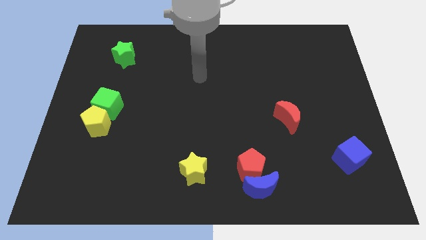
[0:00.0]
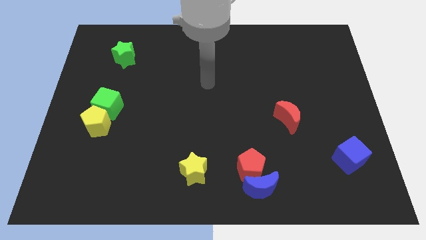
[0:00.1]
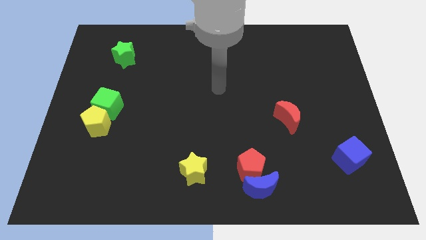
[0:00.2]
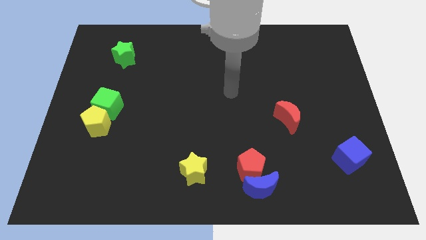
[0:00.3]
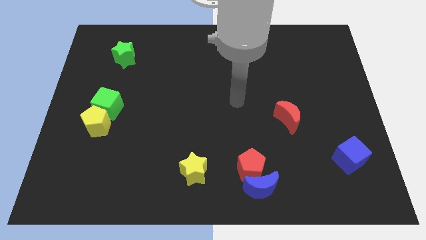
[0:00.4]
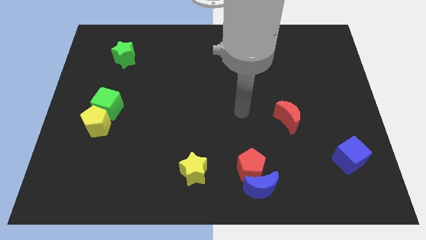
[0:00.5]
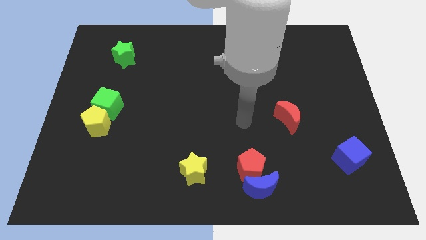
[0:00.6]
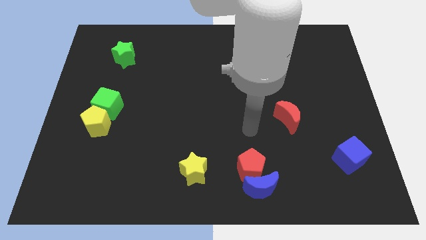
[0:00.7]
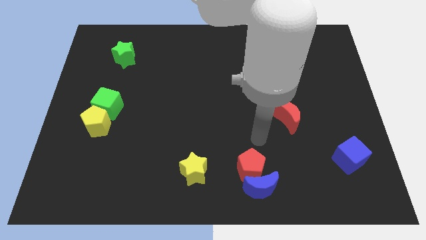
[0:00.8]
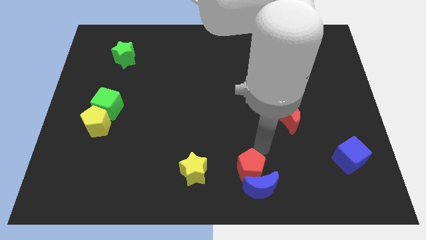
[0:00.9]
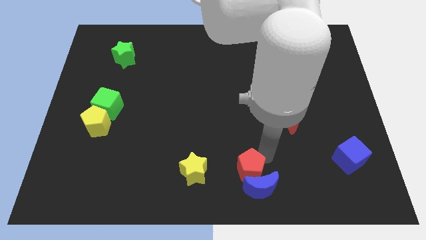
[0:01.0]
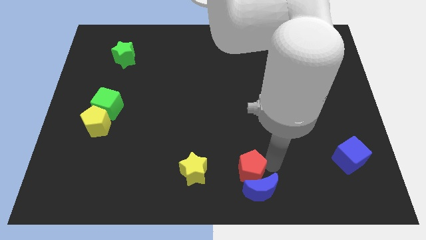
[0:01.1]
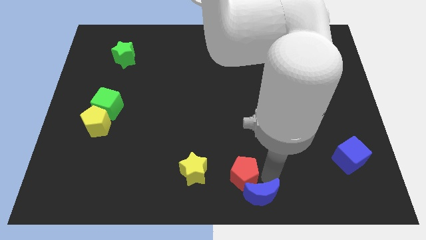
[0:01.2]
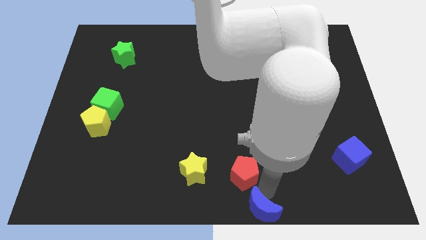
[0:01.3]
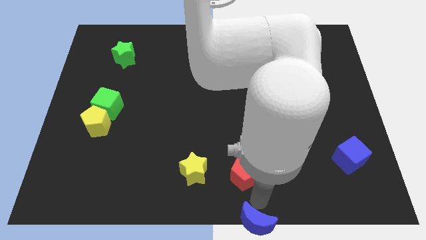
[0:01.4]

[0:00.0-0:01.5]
move the red pentagon away from the blue moon

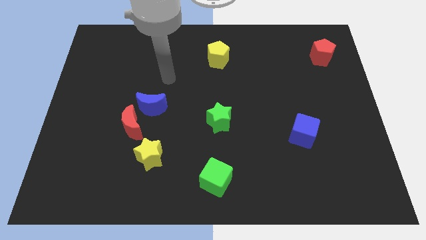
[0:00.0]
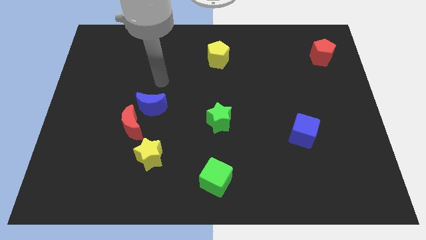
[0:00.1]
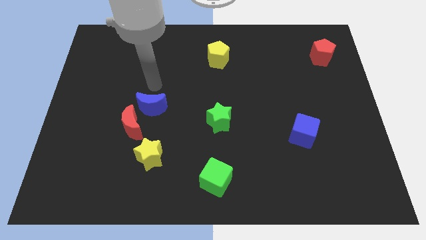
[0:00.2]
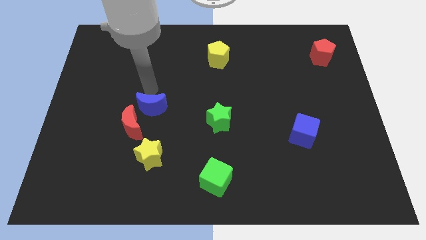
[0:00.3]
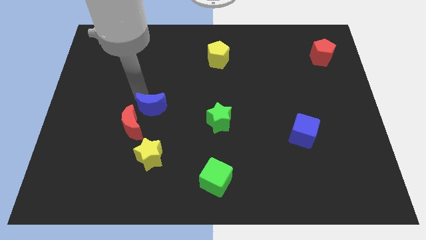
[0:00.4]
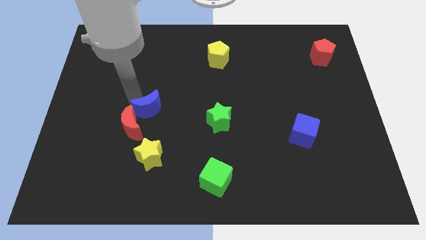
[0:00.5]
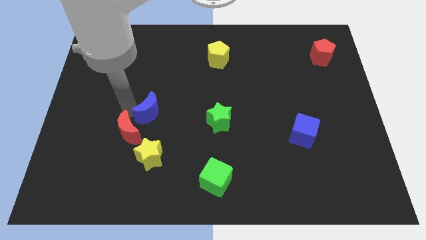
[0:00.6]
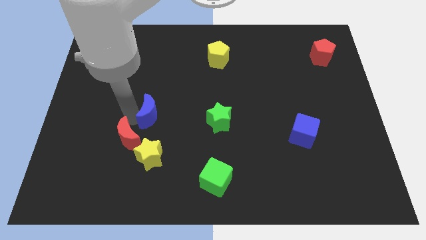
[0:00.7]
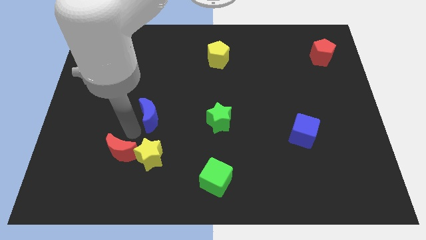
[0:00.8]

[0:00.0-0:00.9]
move the blue moon away from the red moon

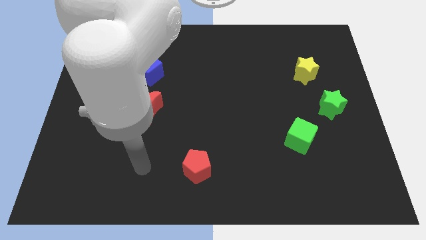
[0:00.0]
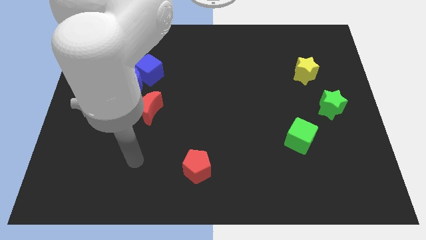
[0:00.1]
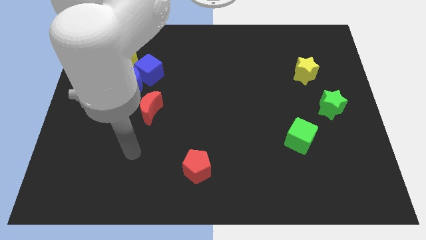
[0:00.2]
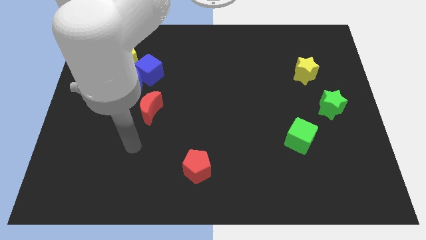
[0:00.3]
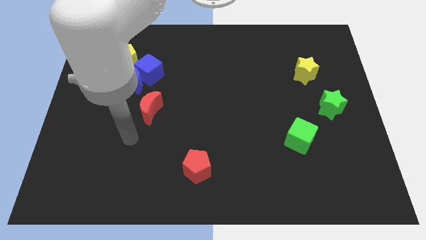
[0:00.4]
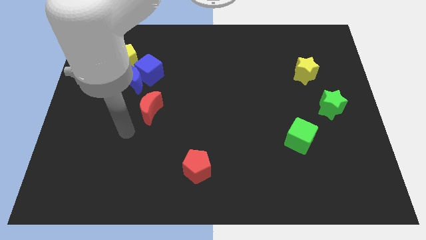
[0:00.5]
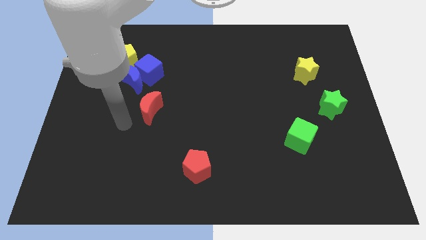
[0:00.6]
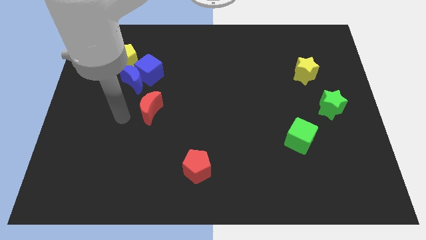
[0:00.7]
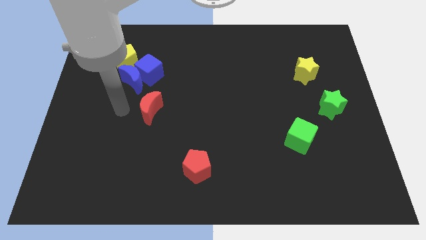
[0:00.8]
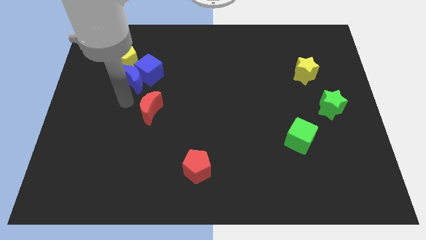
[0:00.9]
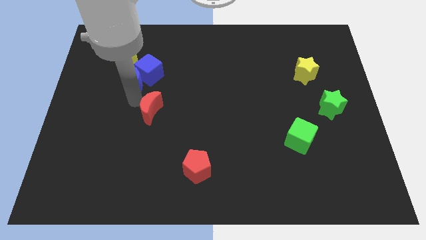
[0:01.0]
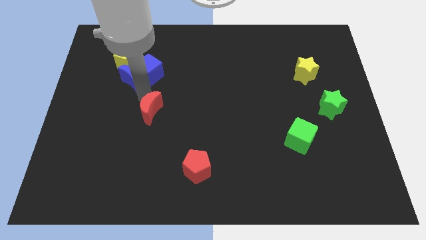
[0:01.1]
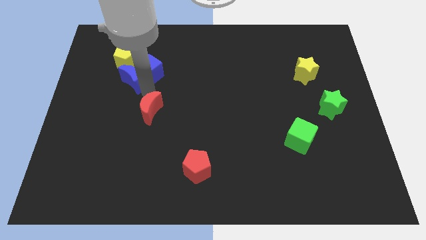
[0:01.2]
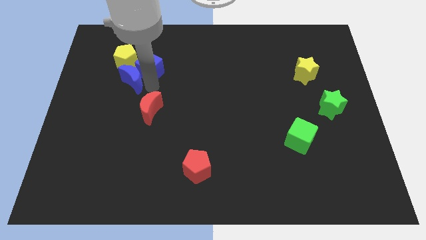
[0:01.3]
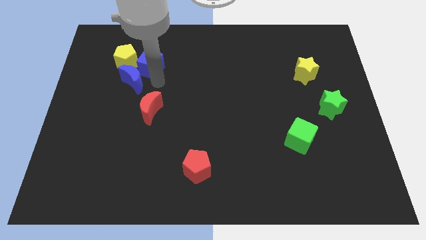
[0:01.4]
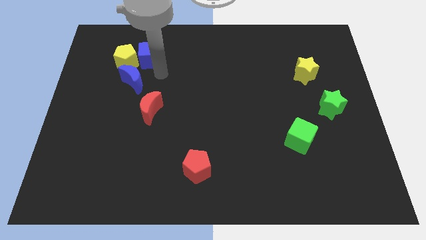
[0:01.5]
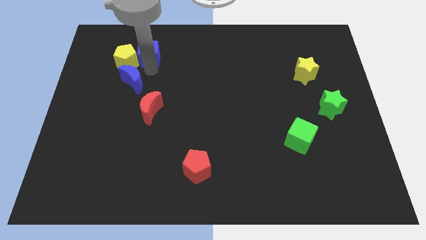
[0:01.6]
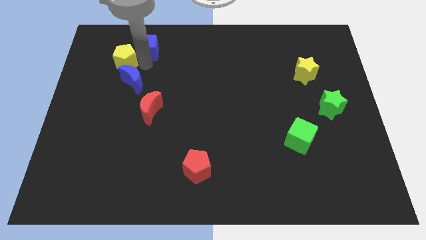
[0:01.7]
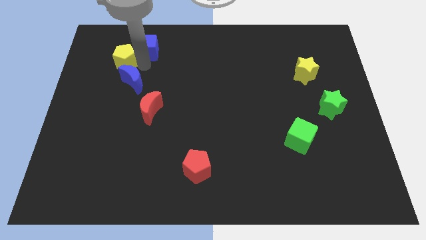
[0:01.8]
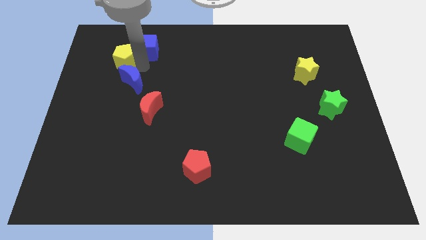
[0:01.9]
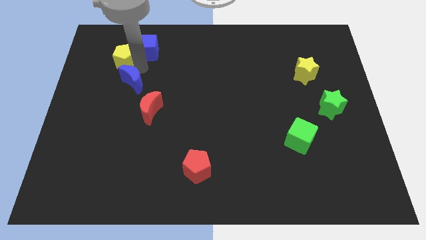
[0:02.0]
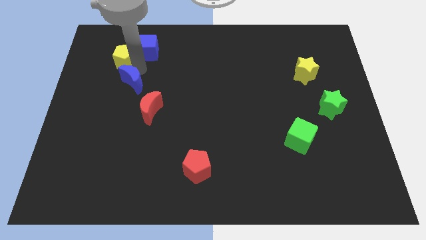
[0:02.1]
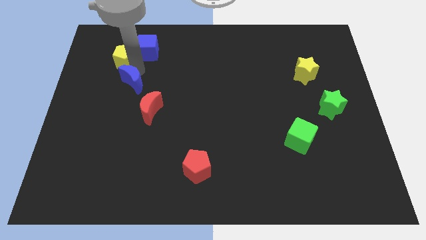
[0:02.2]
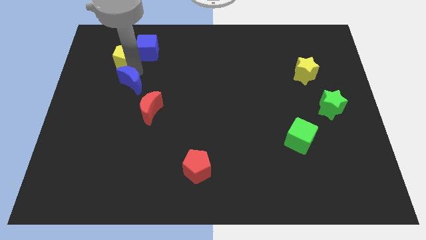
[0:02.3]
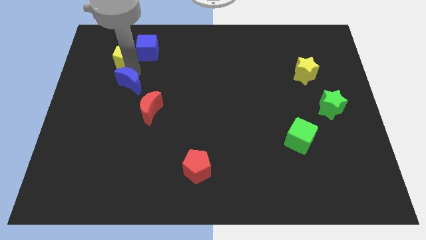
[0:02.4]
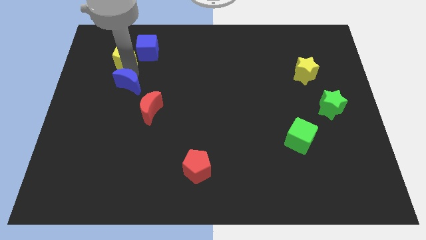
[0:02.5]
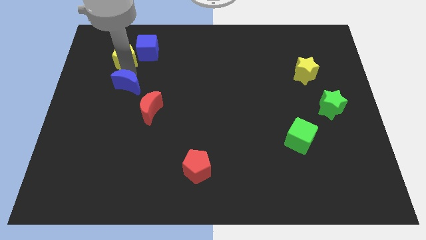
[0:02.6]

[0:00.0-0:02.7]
separate the blue moon from the blue cube and yellow pentagon

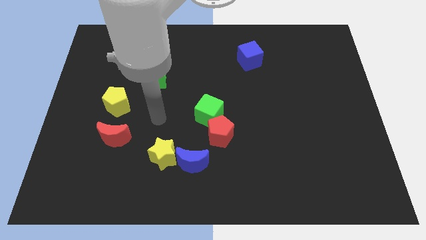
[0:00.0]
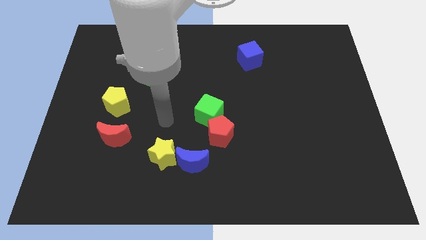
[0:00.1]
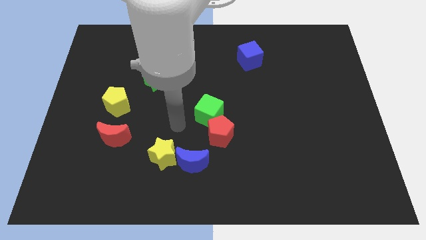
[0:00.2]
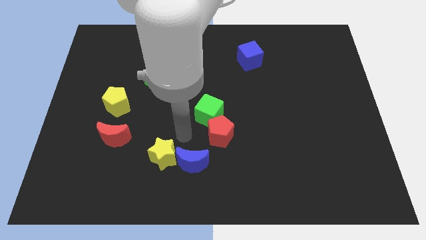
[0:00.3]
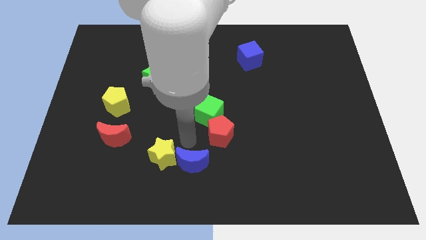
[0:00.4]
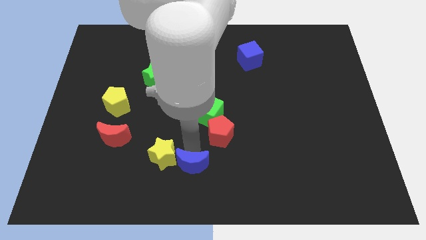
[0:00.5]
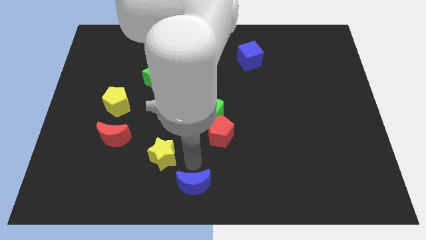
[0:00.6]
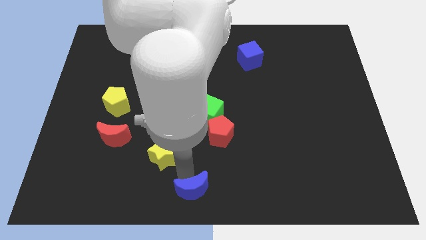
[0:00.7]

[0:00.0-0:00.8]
move the yellow star away from the blue moon

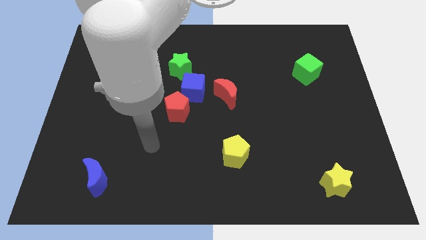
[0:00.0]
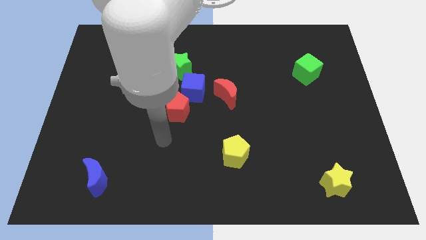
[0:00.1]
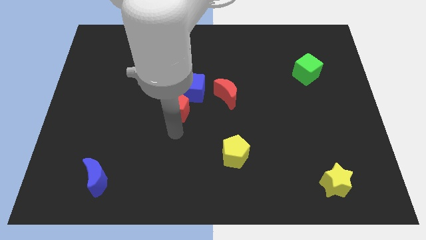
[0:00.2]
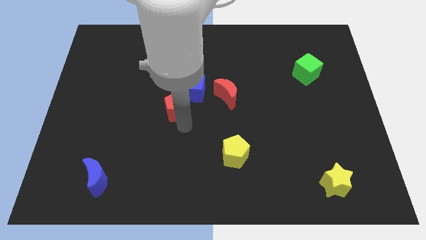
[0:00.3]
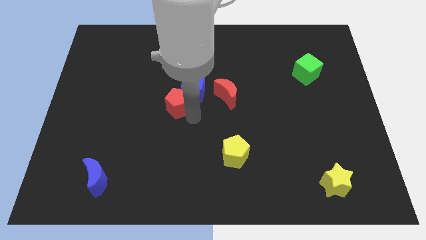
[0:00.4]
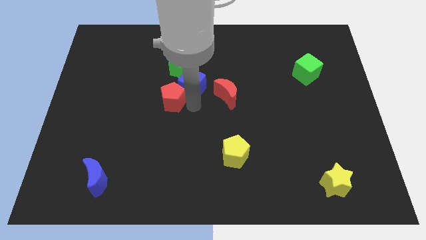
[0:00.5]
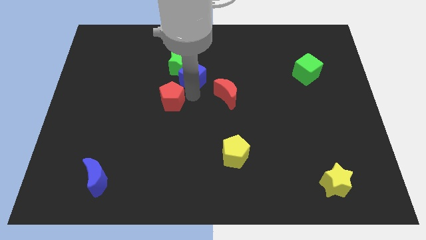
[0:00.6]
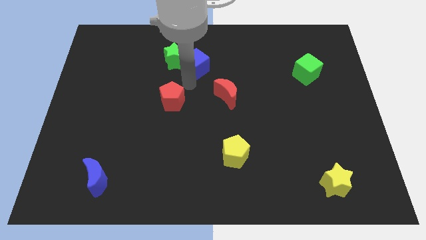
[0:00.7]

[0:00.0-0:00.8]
separate the red pentagon from the blue cube

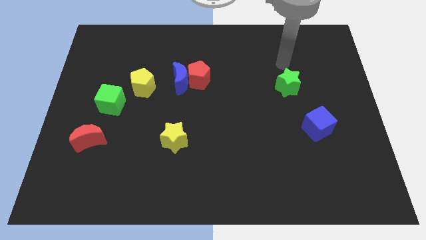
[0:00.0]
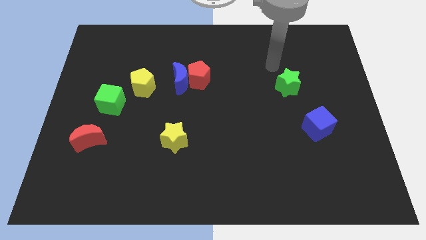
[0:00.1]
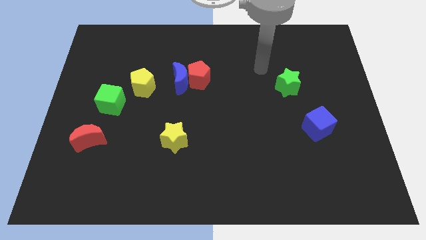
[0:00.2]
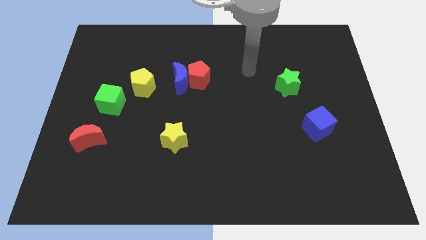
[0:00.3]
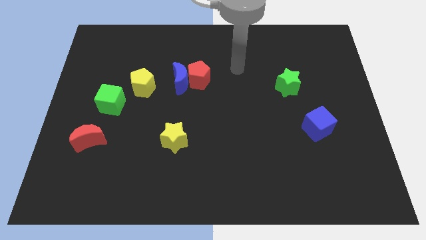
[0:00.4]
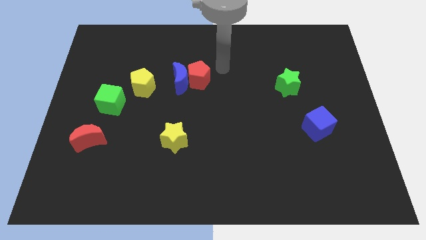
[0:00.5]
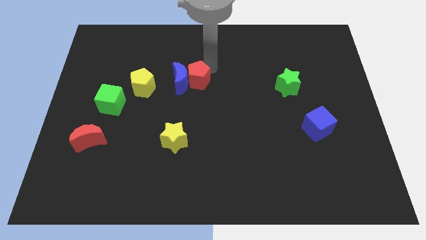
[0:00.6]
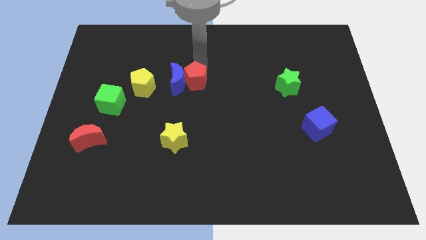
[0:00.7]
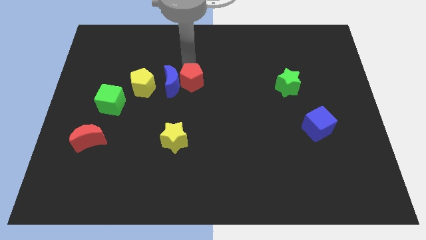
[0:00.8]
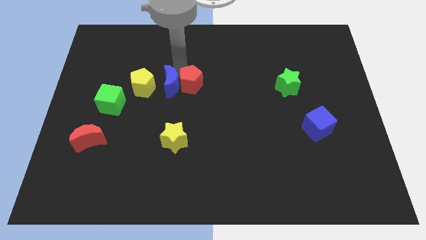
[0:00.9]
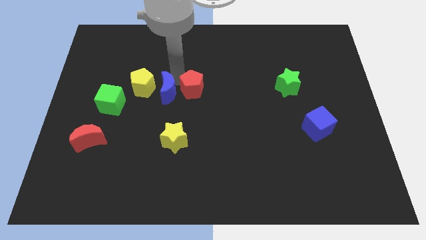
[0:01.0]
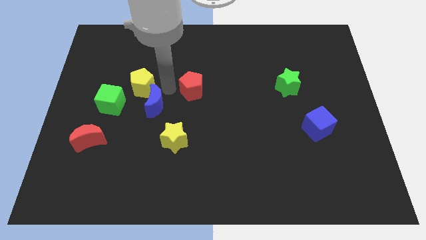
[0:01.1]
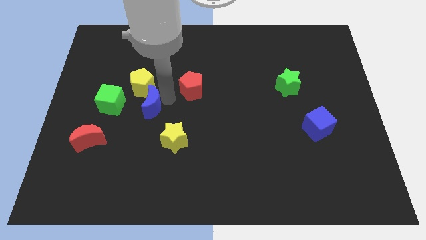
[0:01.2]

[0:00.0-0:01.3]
pull the red pentagon apart from the blue moon

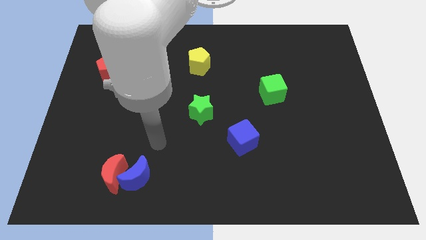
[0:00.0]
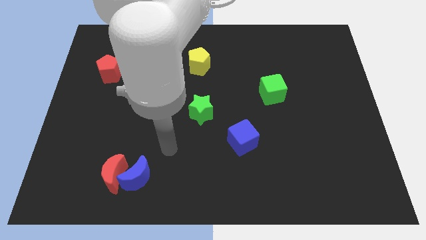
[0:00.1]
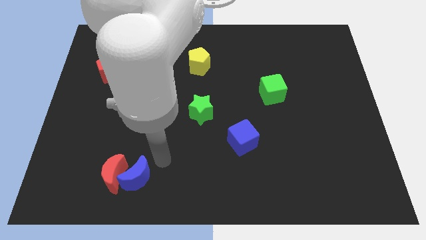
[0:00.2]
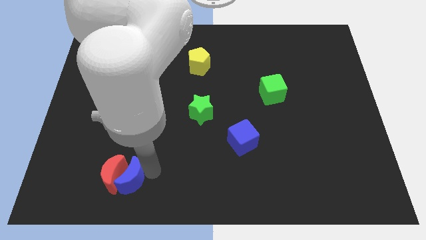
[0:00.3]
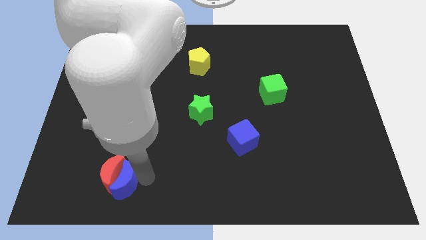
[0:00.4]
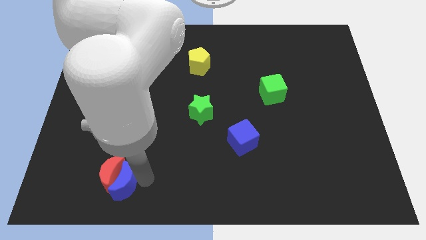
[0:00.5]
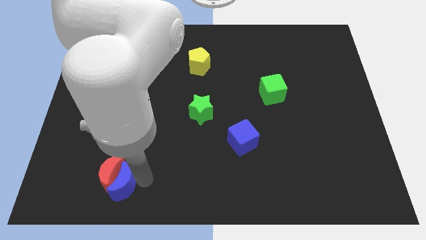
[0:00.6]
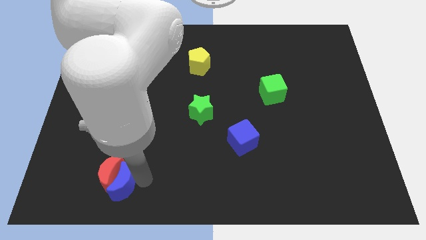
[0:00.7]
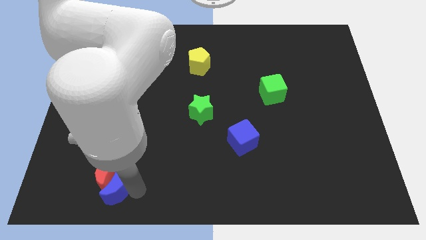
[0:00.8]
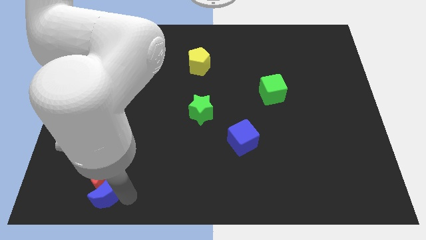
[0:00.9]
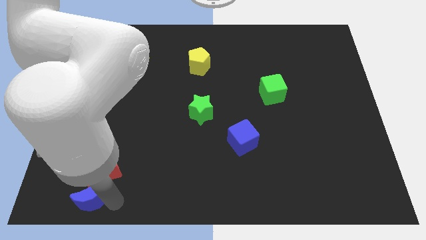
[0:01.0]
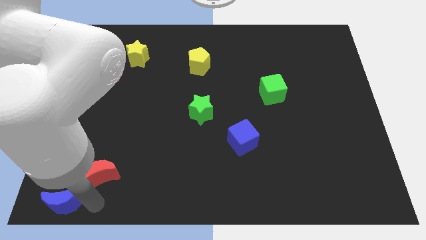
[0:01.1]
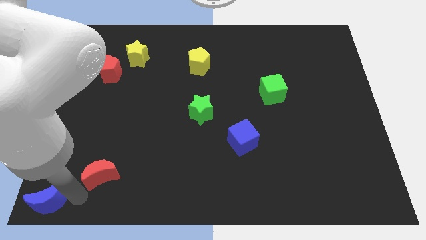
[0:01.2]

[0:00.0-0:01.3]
move the red moon away from the blue moon

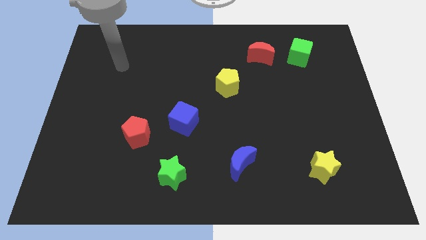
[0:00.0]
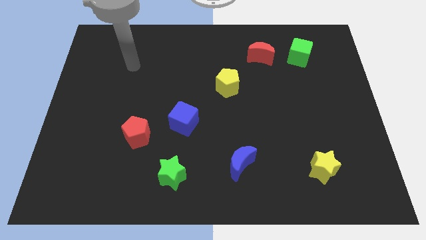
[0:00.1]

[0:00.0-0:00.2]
pull the red moon apart from the green cube

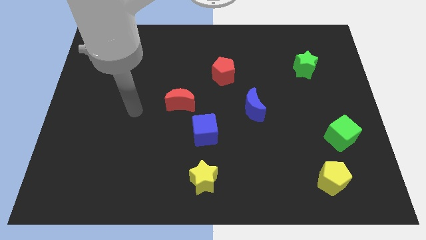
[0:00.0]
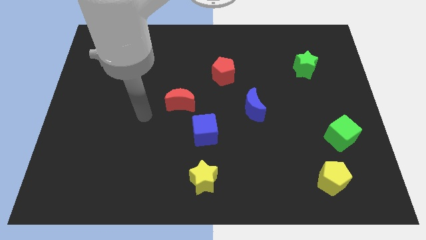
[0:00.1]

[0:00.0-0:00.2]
move the red moon away from the blue cube
